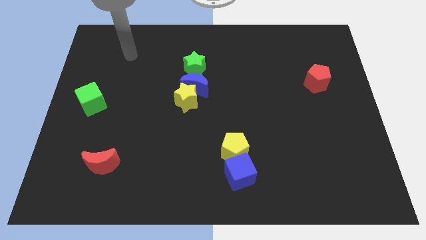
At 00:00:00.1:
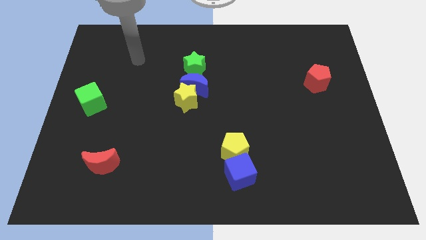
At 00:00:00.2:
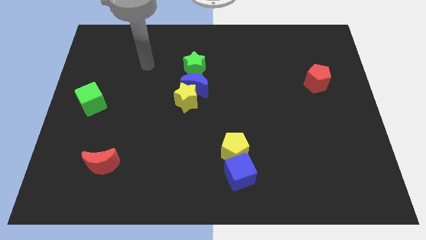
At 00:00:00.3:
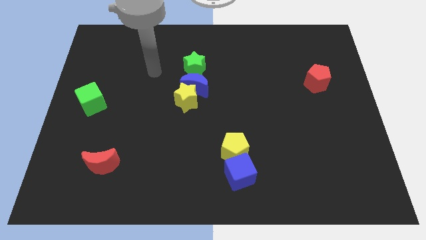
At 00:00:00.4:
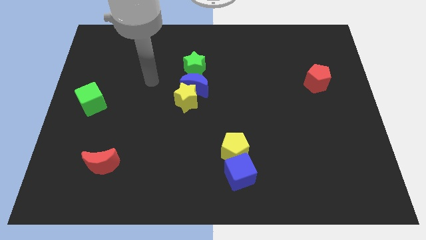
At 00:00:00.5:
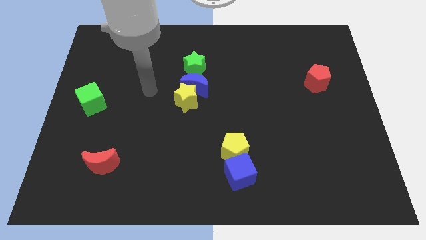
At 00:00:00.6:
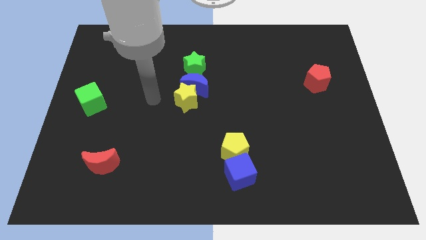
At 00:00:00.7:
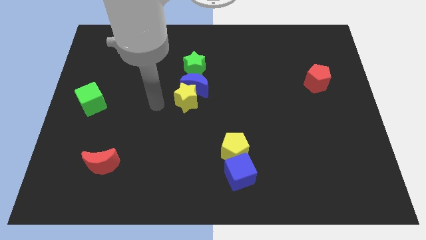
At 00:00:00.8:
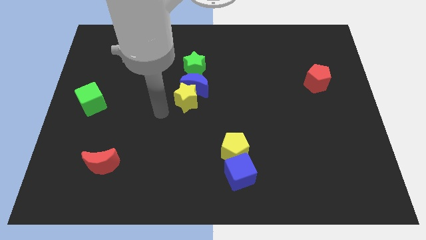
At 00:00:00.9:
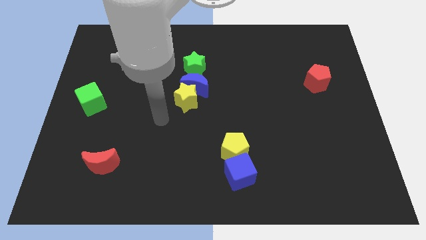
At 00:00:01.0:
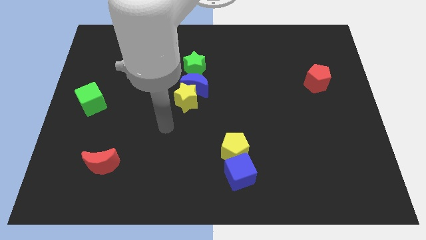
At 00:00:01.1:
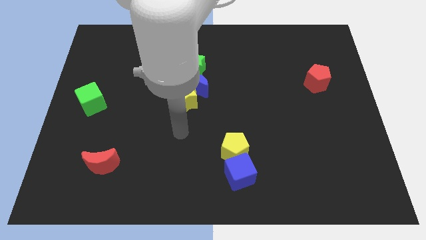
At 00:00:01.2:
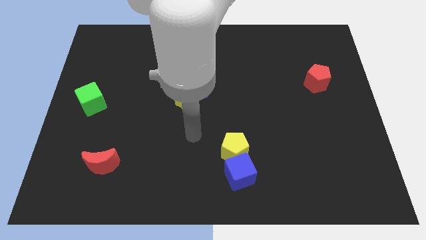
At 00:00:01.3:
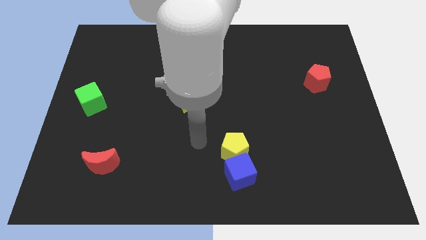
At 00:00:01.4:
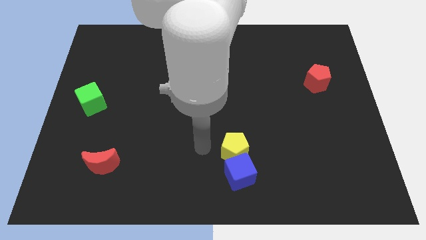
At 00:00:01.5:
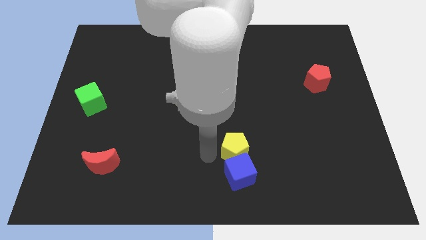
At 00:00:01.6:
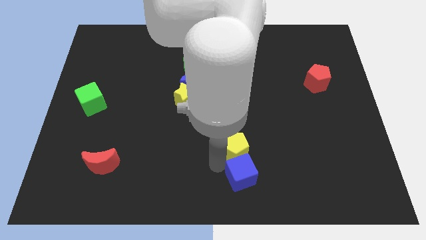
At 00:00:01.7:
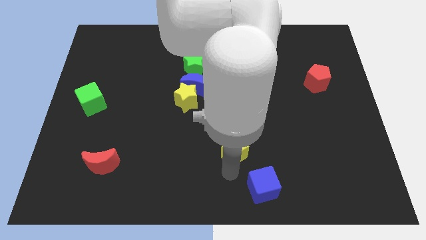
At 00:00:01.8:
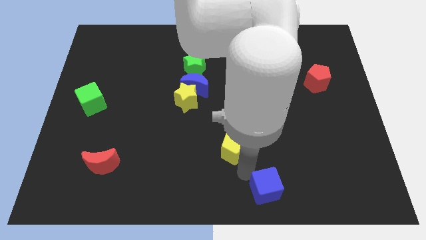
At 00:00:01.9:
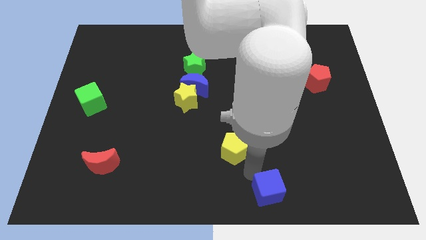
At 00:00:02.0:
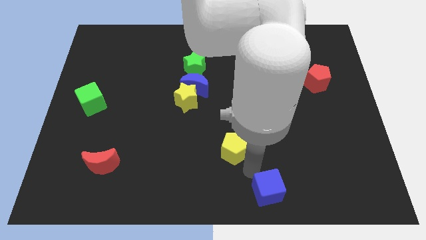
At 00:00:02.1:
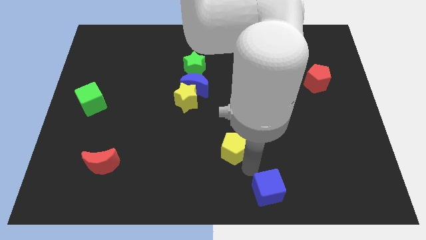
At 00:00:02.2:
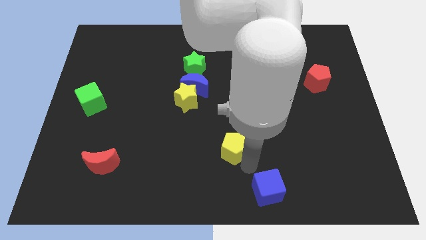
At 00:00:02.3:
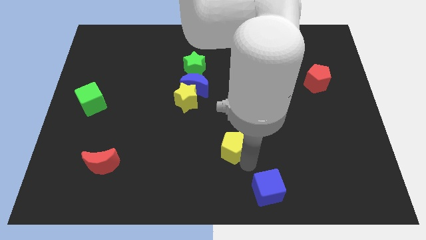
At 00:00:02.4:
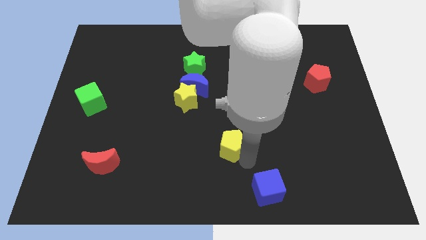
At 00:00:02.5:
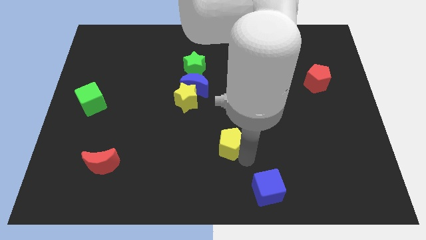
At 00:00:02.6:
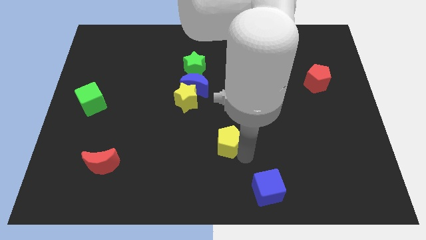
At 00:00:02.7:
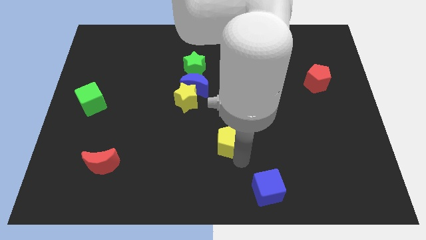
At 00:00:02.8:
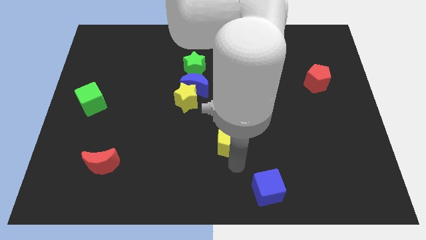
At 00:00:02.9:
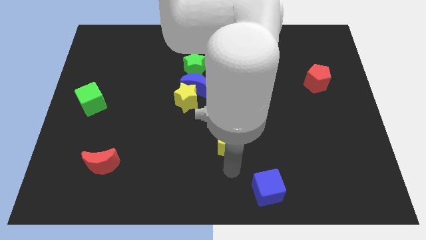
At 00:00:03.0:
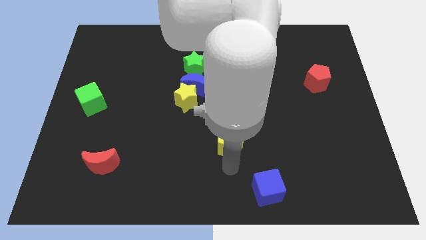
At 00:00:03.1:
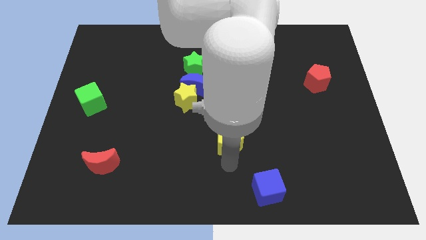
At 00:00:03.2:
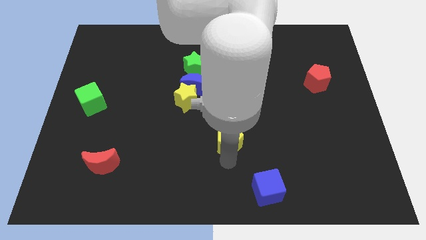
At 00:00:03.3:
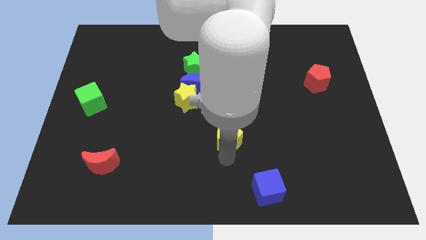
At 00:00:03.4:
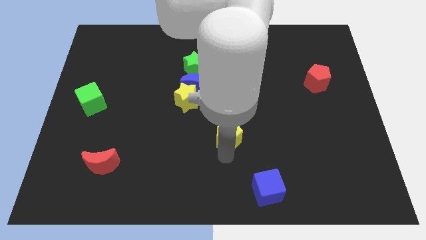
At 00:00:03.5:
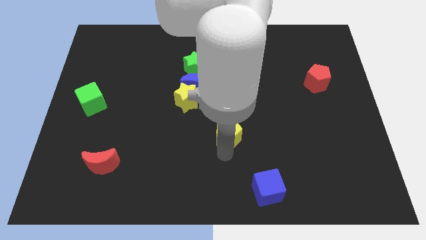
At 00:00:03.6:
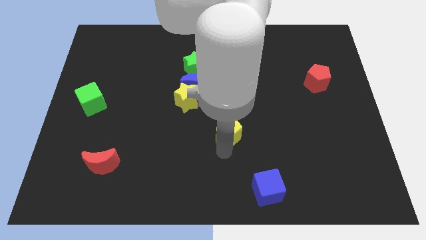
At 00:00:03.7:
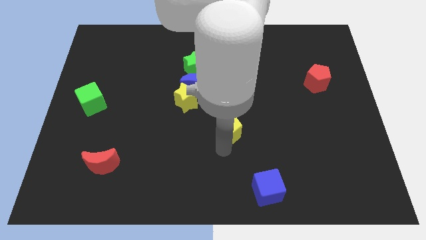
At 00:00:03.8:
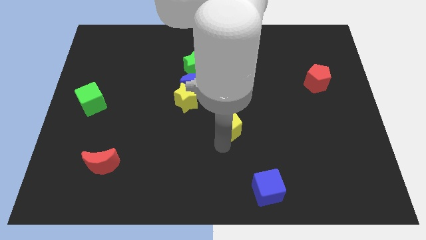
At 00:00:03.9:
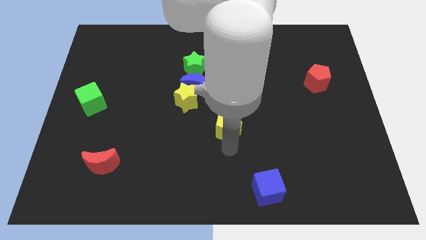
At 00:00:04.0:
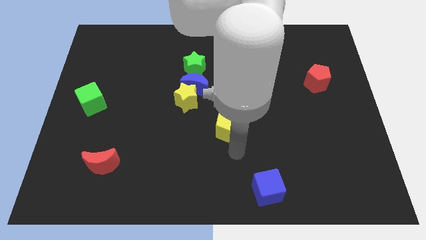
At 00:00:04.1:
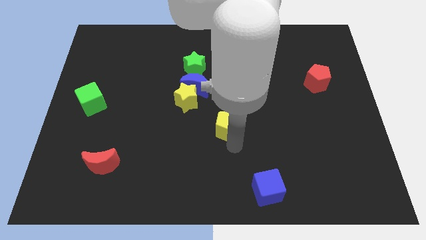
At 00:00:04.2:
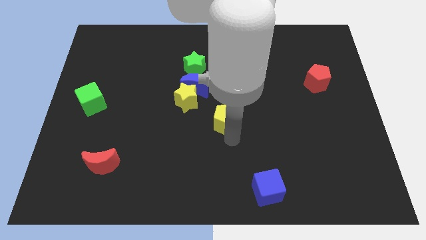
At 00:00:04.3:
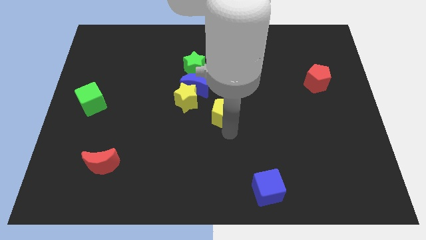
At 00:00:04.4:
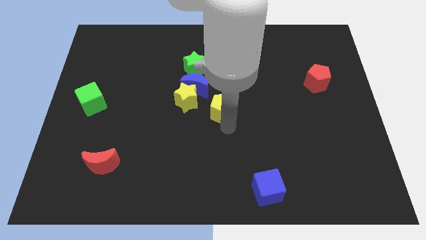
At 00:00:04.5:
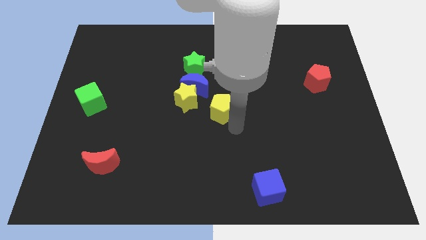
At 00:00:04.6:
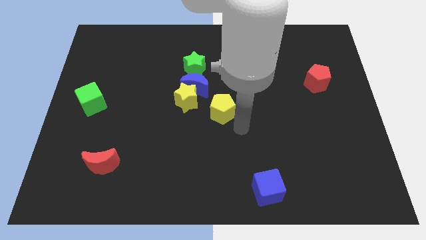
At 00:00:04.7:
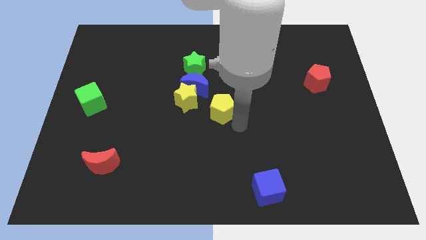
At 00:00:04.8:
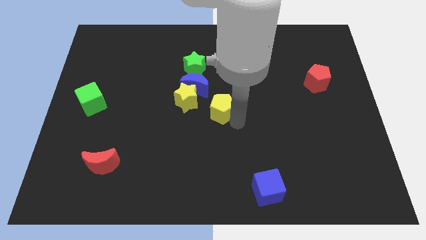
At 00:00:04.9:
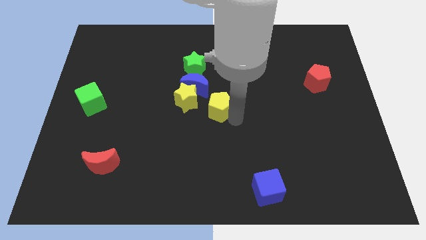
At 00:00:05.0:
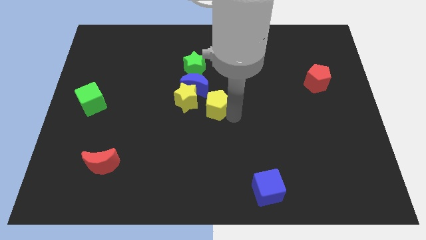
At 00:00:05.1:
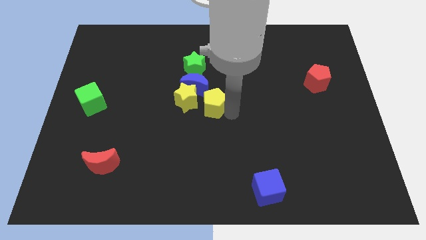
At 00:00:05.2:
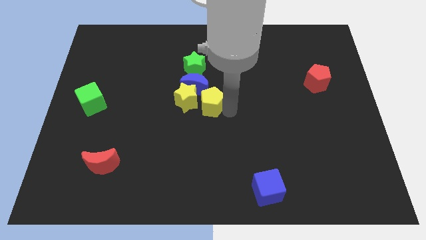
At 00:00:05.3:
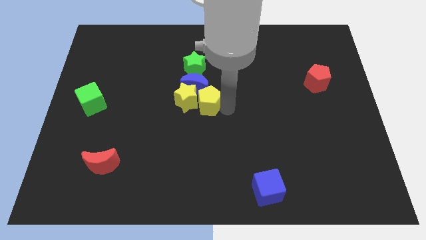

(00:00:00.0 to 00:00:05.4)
slide the yellow pentagon towards the blue moon

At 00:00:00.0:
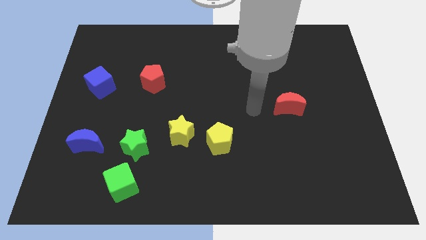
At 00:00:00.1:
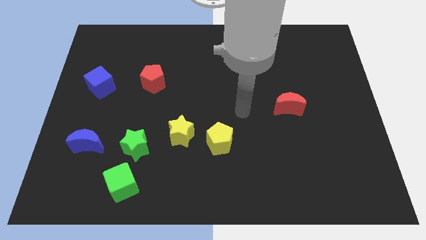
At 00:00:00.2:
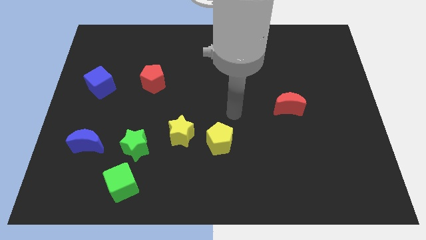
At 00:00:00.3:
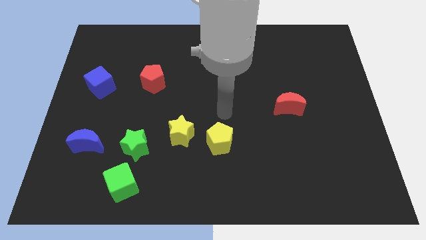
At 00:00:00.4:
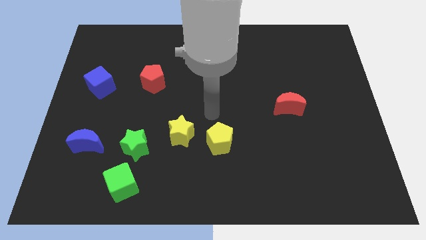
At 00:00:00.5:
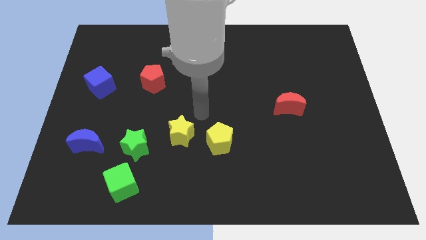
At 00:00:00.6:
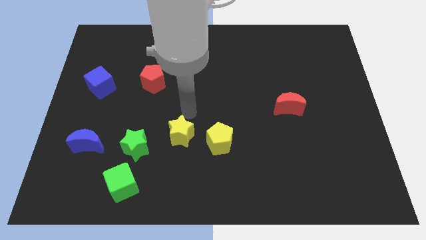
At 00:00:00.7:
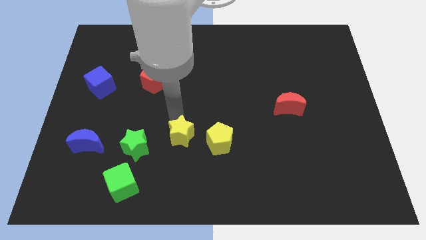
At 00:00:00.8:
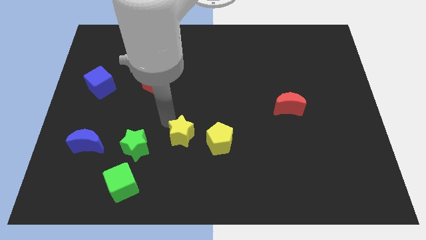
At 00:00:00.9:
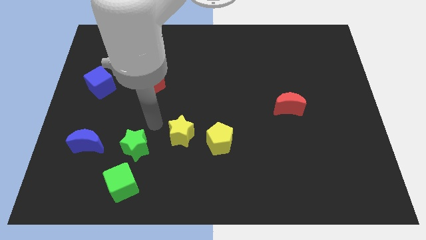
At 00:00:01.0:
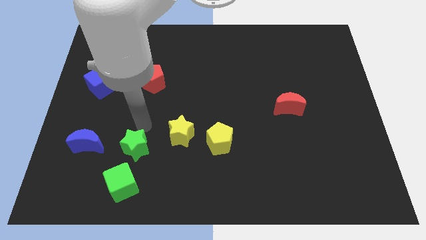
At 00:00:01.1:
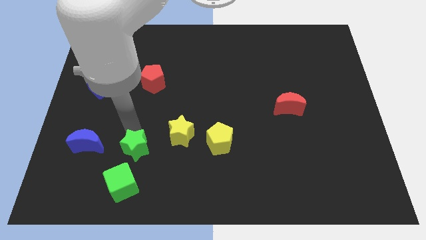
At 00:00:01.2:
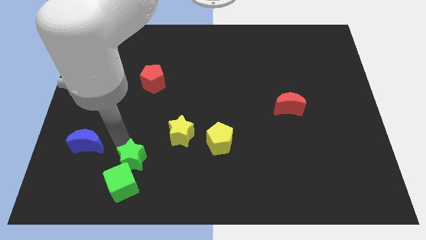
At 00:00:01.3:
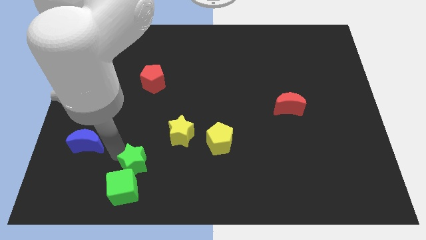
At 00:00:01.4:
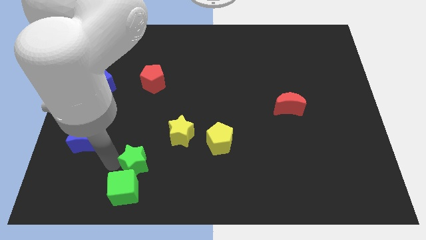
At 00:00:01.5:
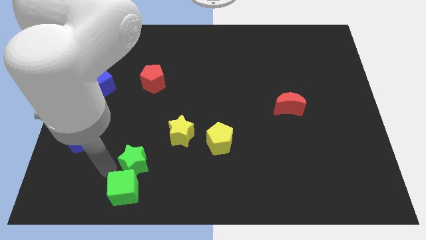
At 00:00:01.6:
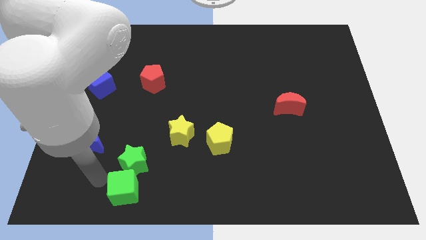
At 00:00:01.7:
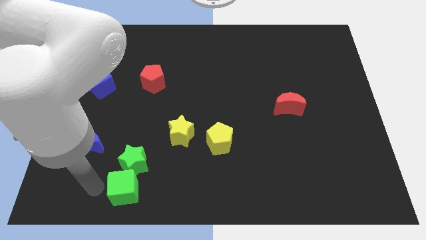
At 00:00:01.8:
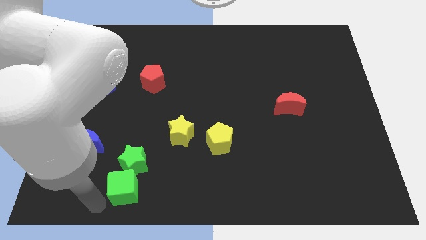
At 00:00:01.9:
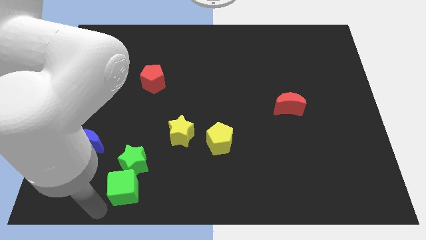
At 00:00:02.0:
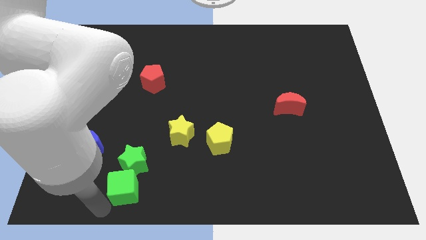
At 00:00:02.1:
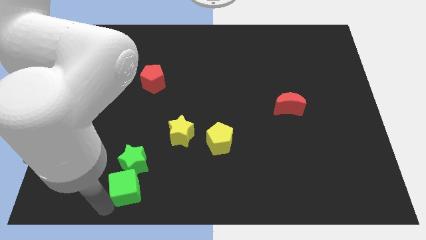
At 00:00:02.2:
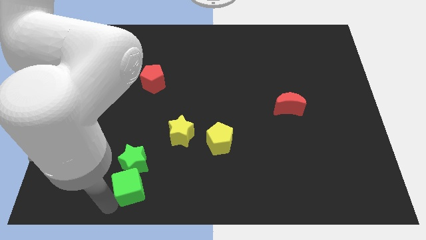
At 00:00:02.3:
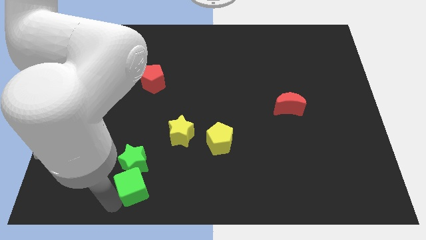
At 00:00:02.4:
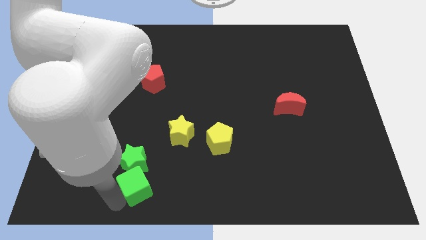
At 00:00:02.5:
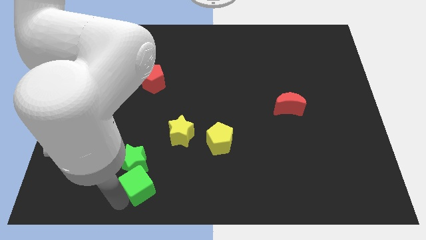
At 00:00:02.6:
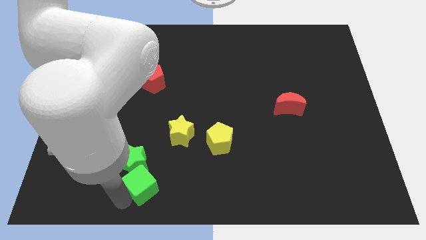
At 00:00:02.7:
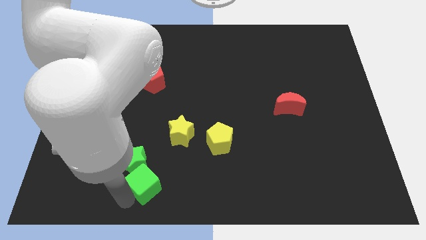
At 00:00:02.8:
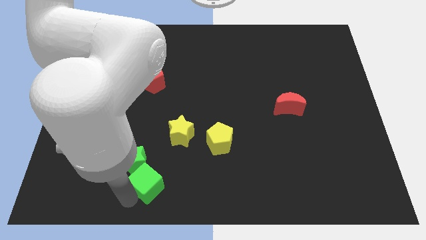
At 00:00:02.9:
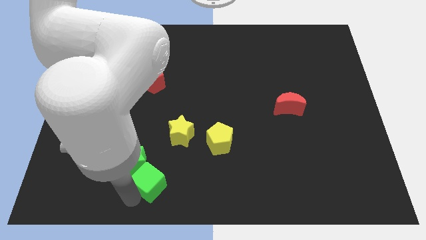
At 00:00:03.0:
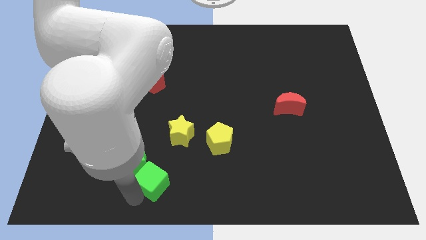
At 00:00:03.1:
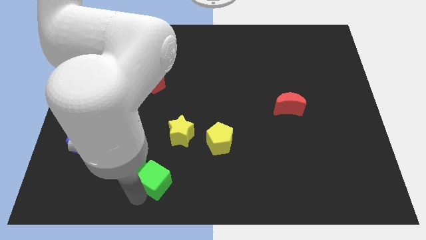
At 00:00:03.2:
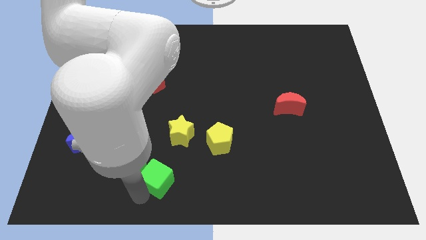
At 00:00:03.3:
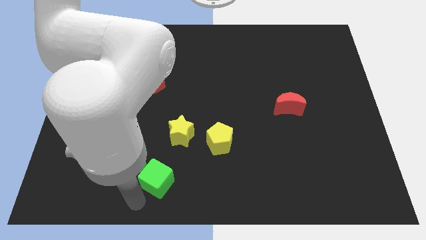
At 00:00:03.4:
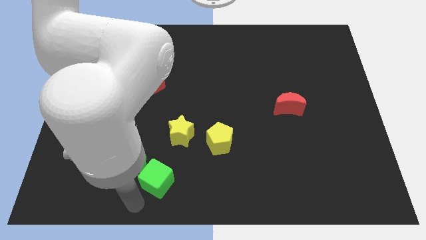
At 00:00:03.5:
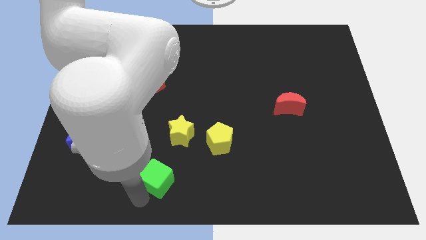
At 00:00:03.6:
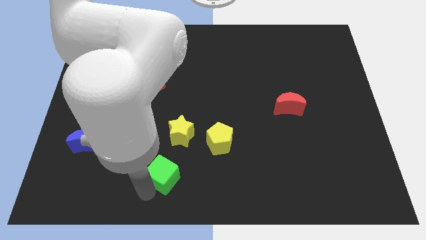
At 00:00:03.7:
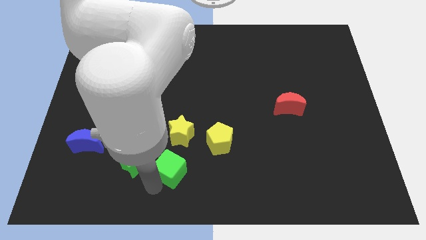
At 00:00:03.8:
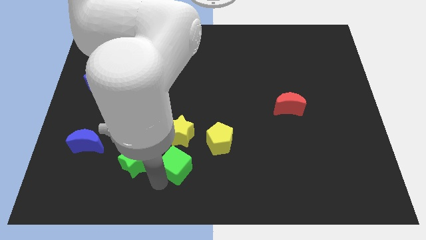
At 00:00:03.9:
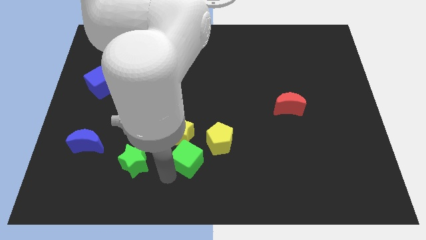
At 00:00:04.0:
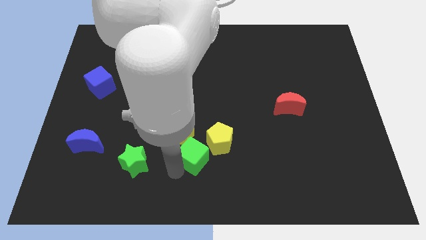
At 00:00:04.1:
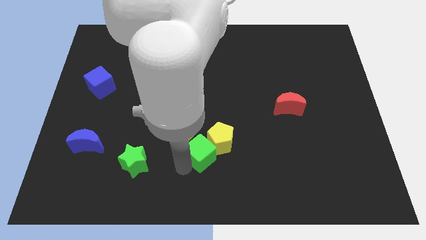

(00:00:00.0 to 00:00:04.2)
slide the green cube close to the yellow pentagon
